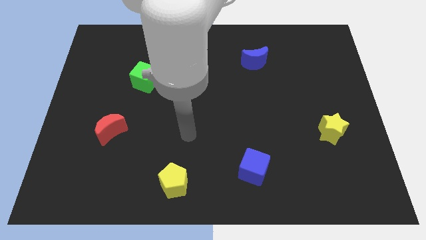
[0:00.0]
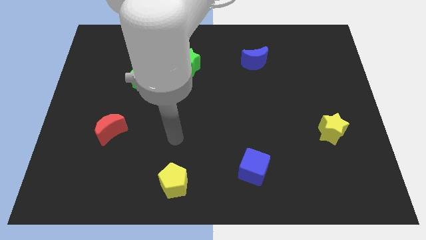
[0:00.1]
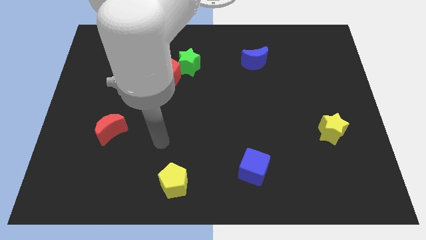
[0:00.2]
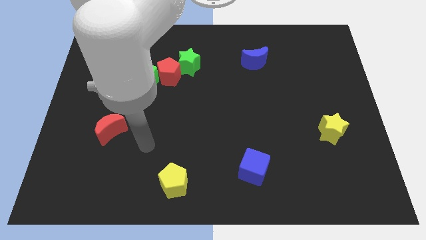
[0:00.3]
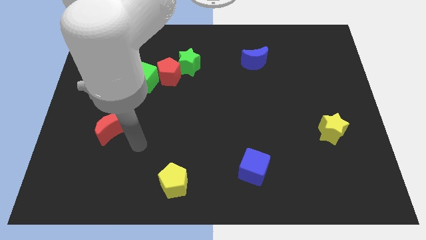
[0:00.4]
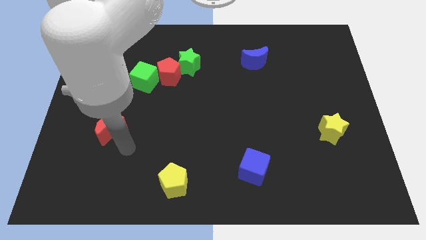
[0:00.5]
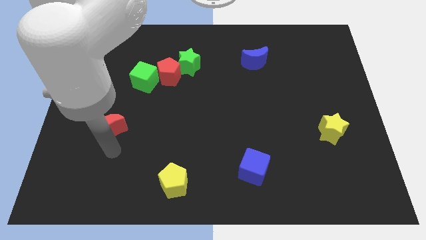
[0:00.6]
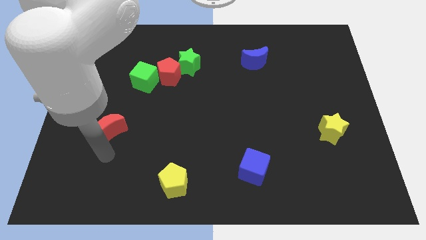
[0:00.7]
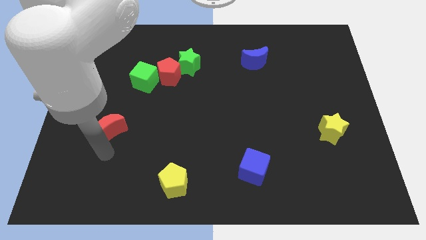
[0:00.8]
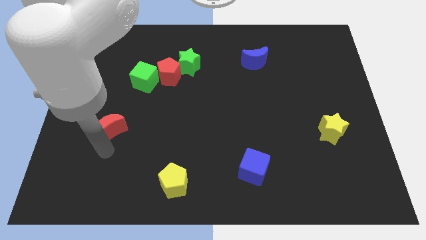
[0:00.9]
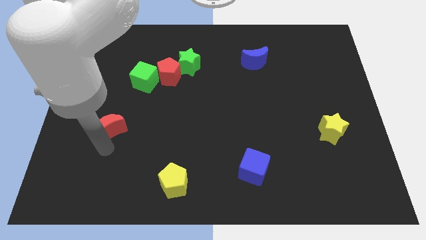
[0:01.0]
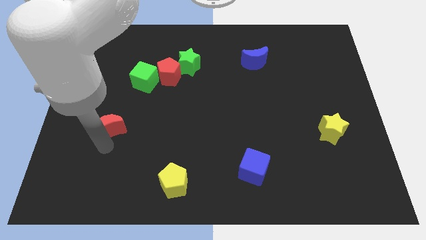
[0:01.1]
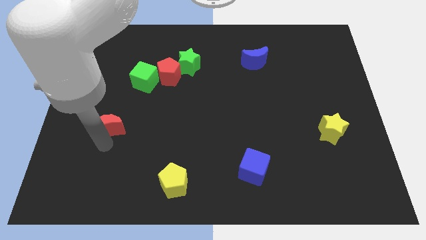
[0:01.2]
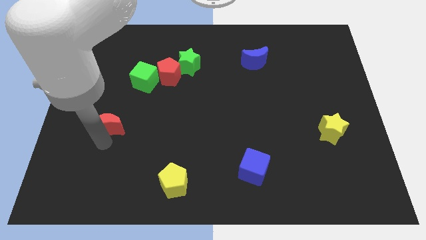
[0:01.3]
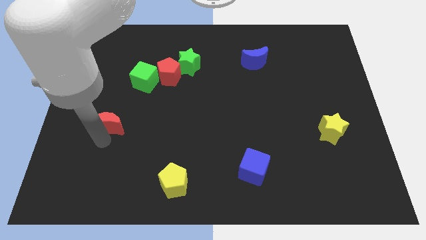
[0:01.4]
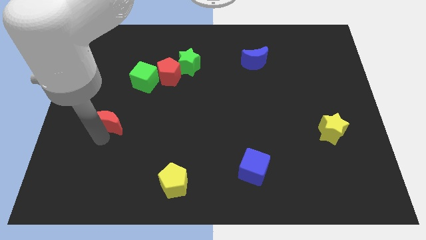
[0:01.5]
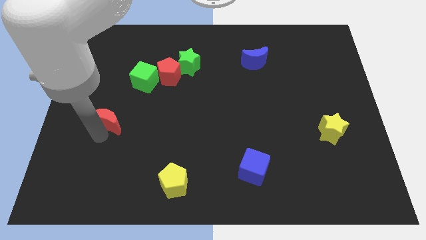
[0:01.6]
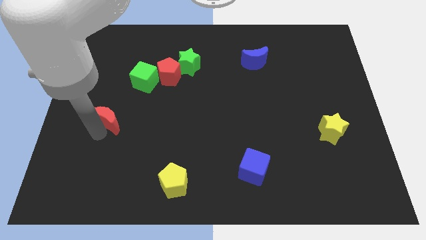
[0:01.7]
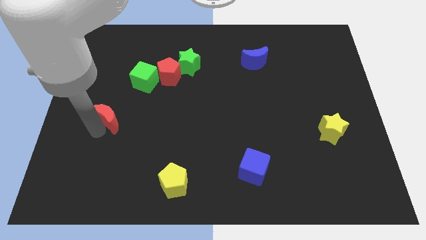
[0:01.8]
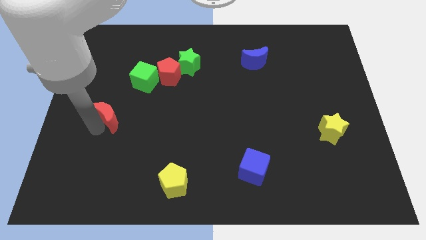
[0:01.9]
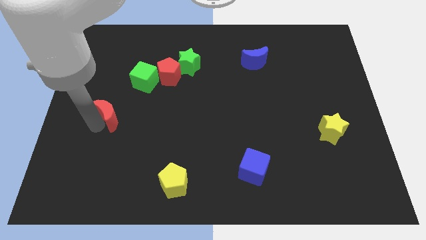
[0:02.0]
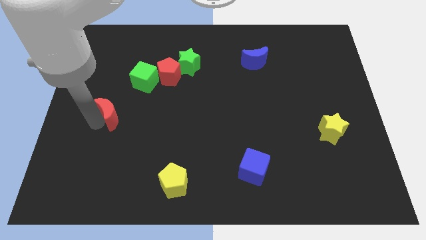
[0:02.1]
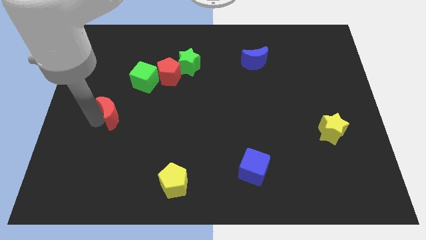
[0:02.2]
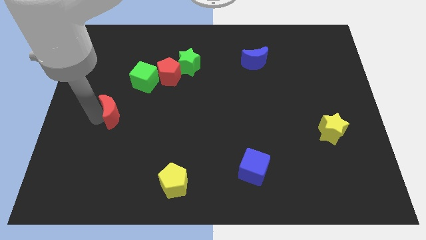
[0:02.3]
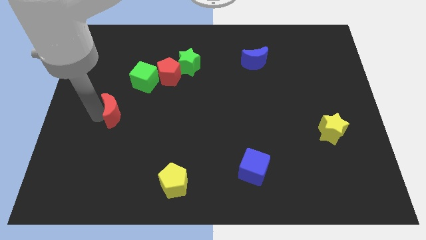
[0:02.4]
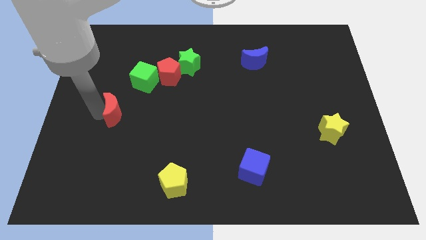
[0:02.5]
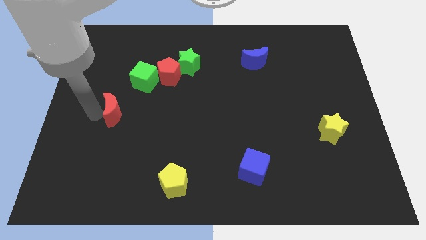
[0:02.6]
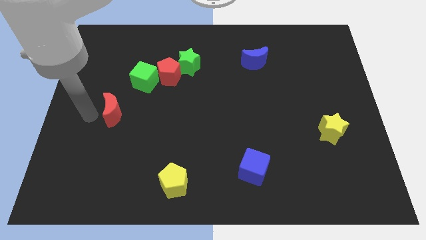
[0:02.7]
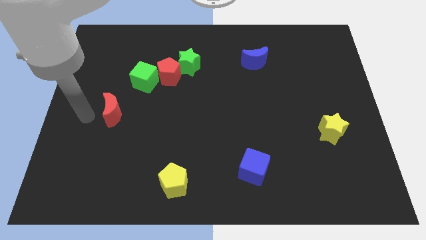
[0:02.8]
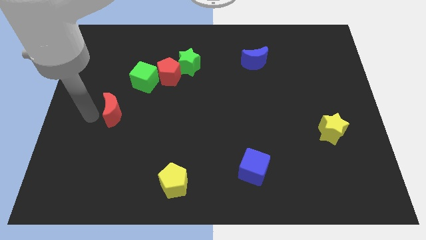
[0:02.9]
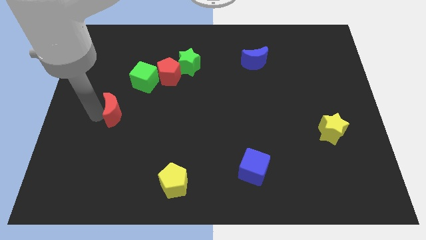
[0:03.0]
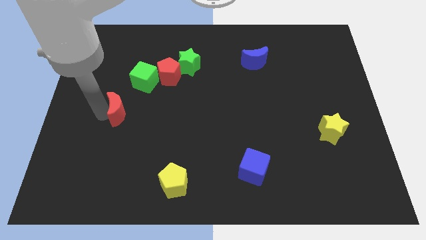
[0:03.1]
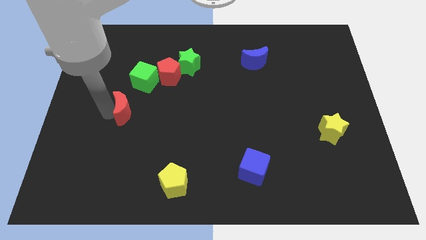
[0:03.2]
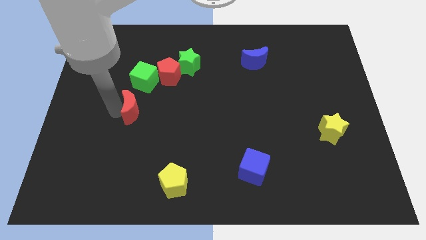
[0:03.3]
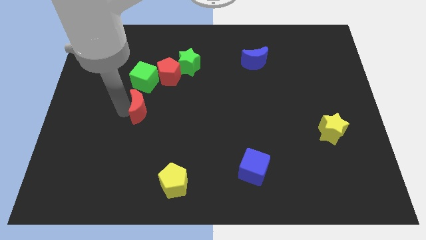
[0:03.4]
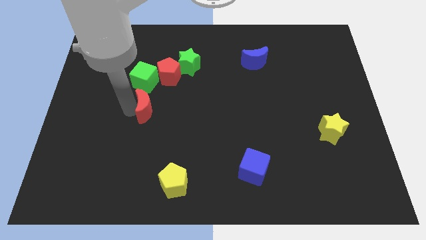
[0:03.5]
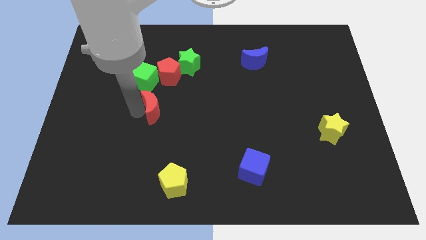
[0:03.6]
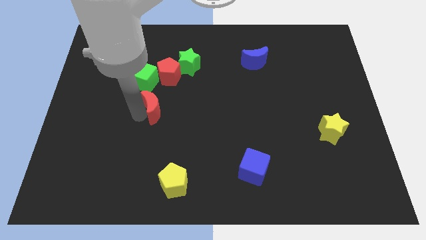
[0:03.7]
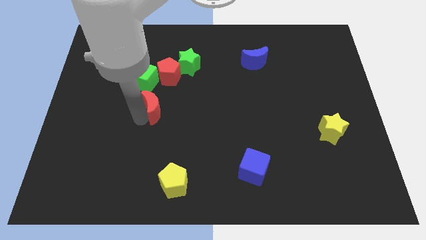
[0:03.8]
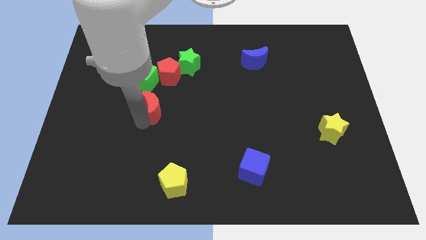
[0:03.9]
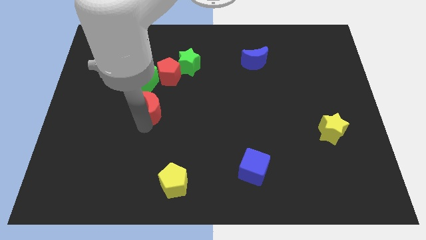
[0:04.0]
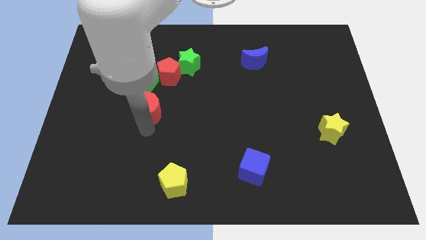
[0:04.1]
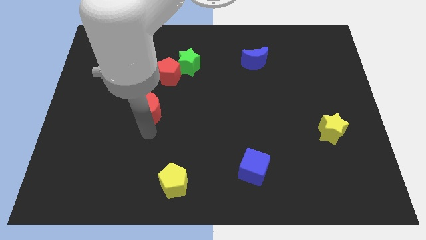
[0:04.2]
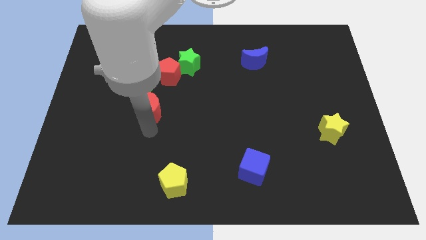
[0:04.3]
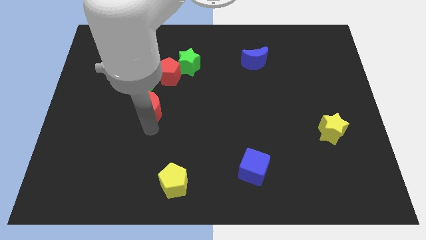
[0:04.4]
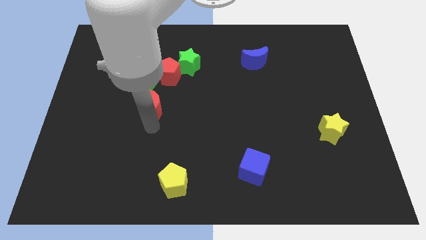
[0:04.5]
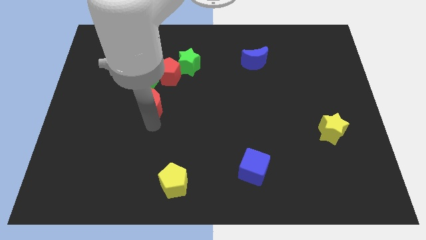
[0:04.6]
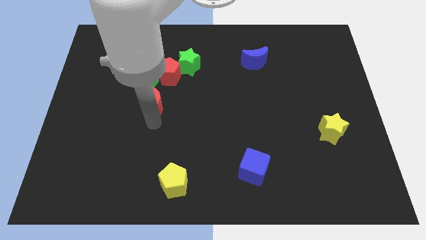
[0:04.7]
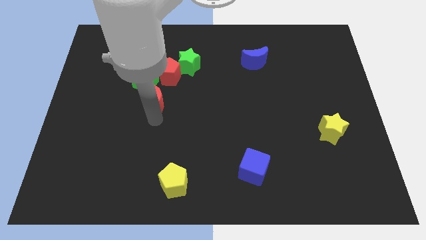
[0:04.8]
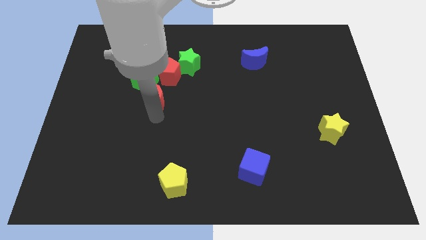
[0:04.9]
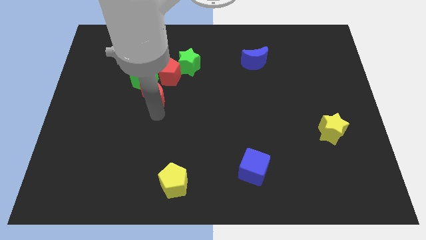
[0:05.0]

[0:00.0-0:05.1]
push the red moon diagonally down and to the left of the green star

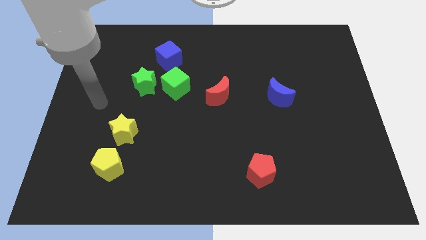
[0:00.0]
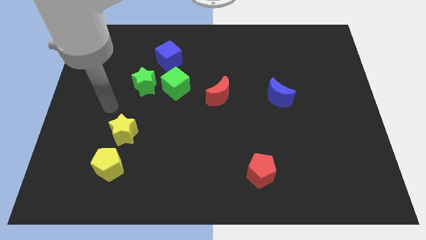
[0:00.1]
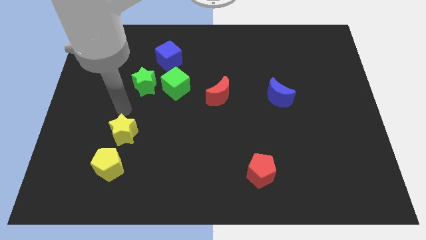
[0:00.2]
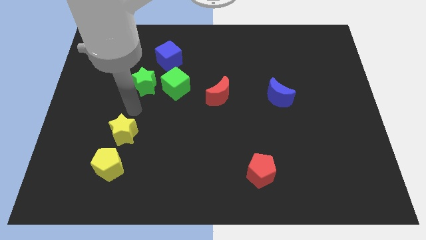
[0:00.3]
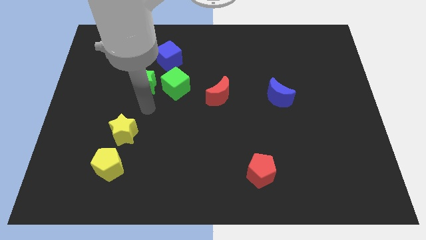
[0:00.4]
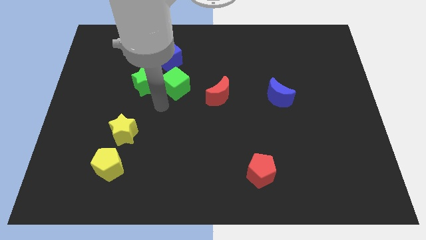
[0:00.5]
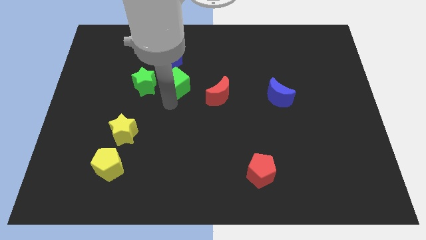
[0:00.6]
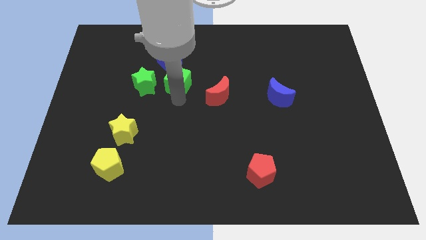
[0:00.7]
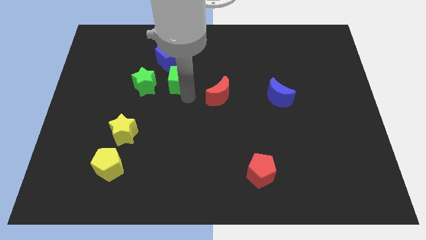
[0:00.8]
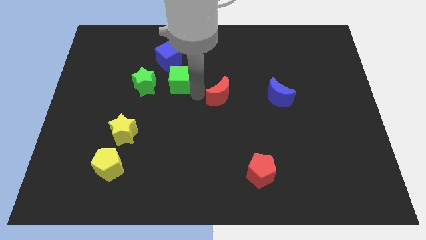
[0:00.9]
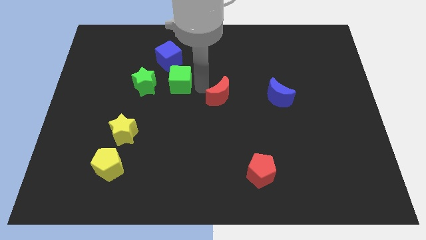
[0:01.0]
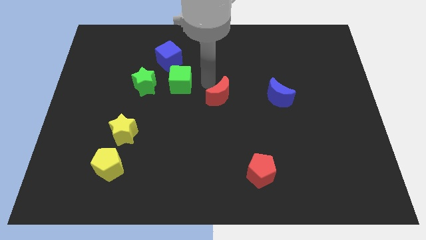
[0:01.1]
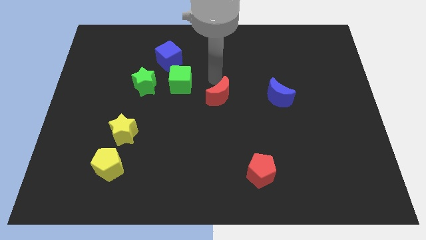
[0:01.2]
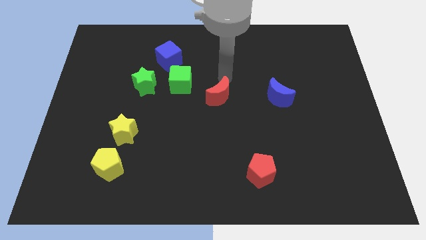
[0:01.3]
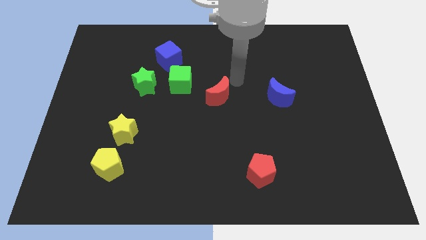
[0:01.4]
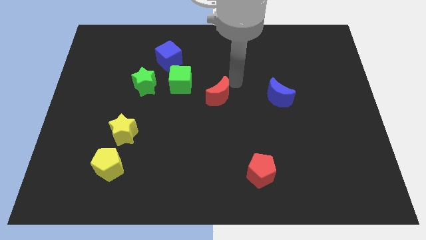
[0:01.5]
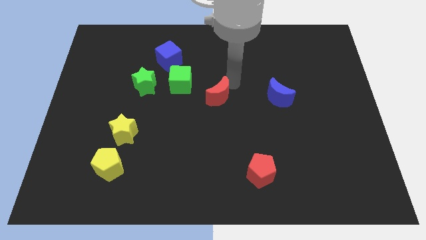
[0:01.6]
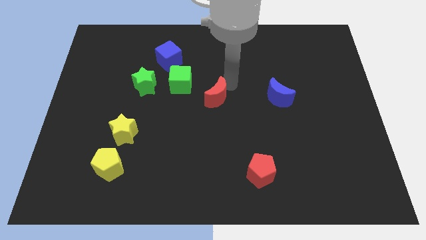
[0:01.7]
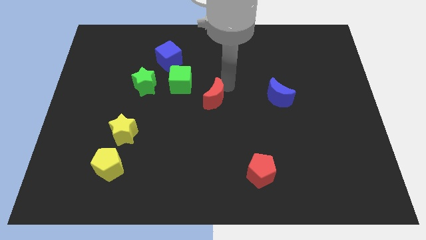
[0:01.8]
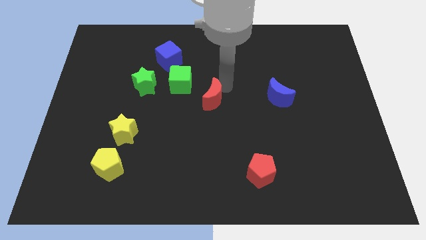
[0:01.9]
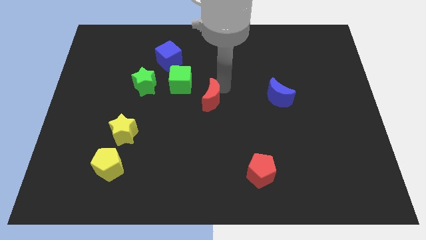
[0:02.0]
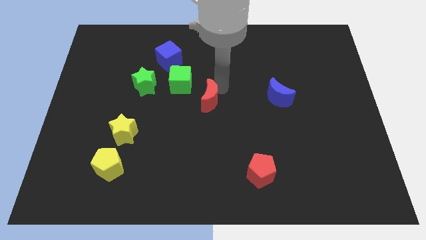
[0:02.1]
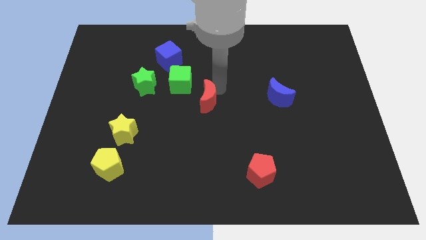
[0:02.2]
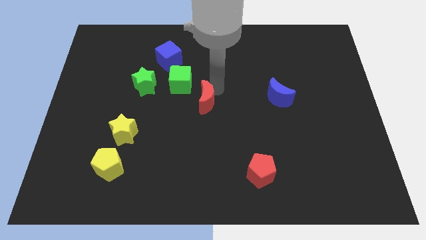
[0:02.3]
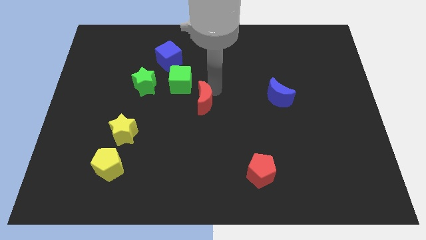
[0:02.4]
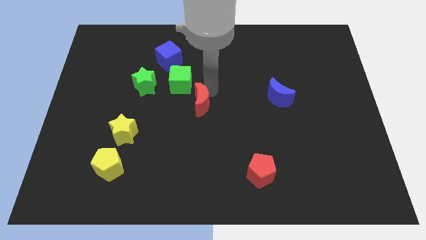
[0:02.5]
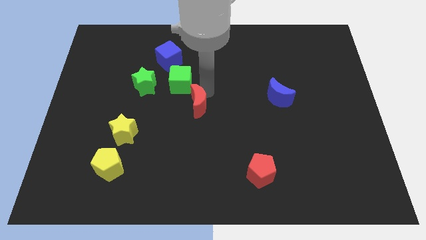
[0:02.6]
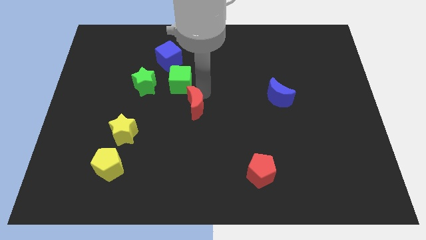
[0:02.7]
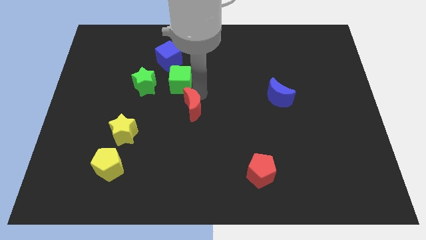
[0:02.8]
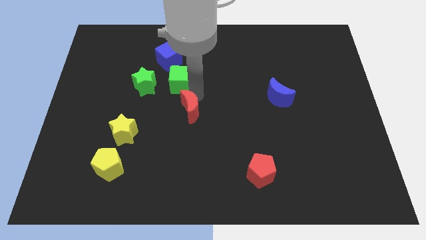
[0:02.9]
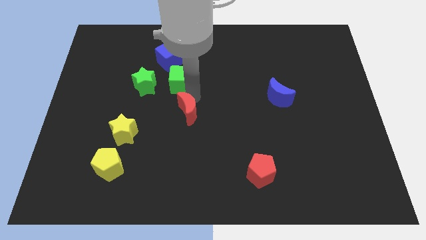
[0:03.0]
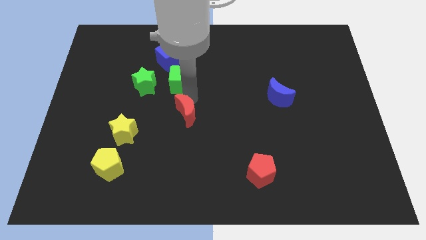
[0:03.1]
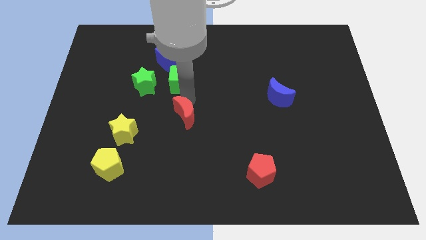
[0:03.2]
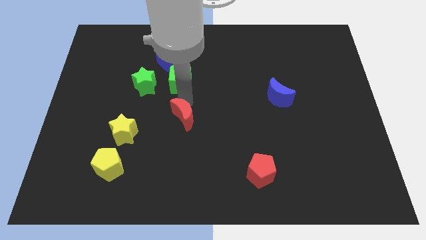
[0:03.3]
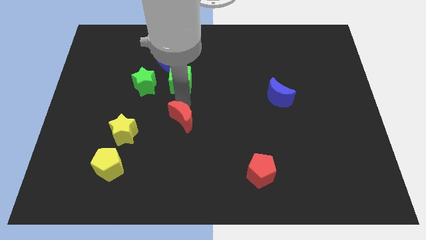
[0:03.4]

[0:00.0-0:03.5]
move the red moon right of the yellow star
